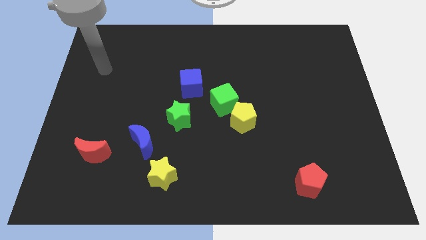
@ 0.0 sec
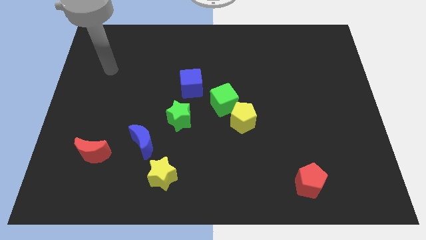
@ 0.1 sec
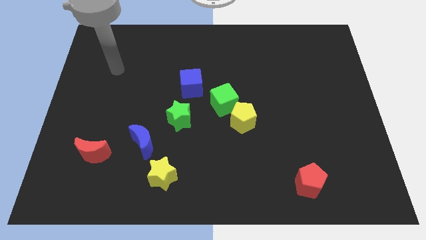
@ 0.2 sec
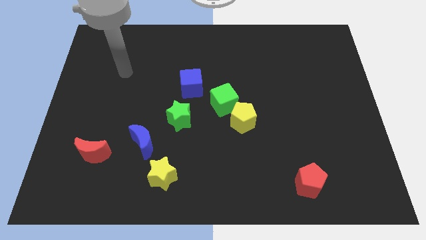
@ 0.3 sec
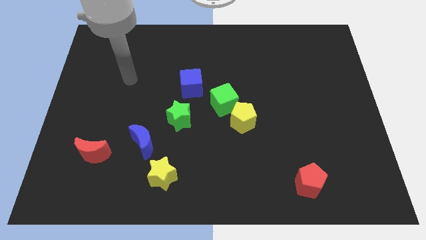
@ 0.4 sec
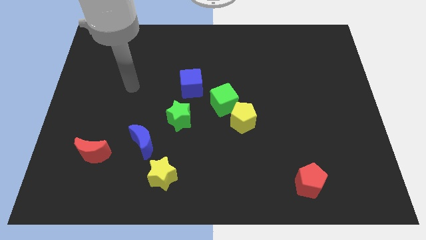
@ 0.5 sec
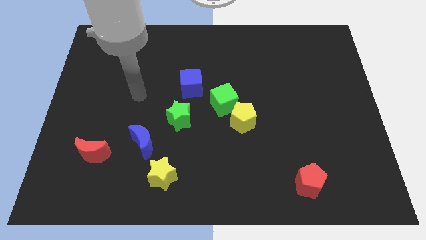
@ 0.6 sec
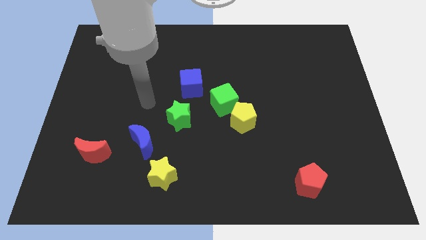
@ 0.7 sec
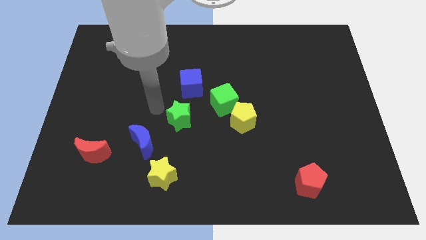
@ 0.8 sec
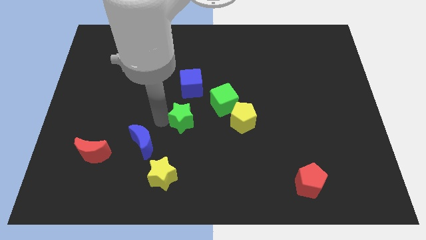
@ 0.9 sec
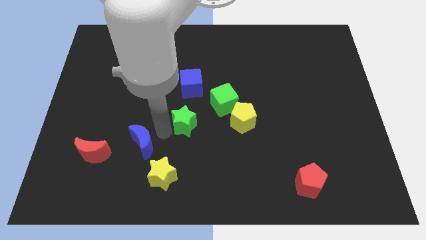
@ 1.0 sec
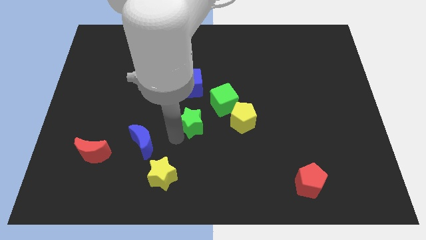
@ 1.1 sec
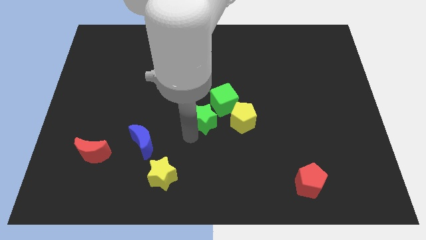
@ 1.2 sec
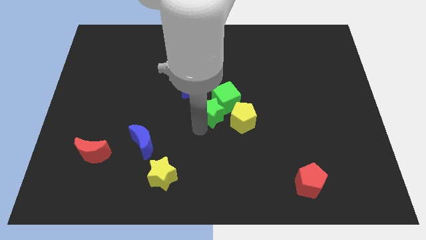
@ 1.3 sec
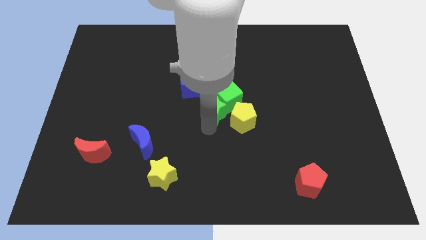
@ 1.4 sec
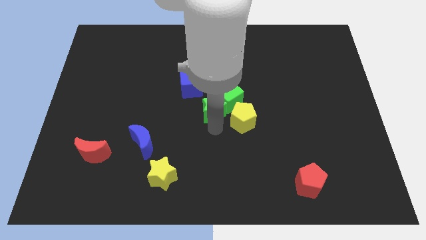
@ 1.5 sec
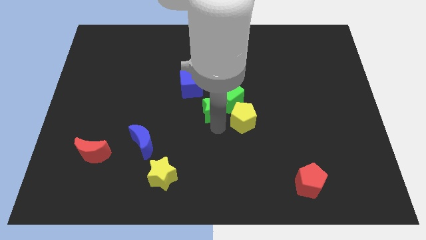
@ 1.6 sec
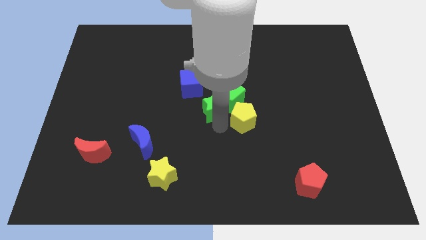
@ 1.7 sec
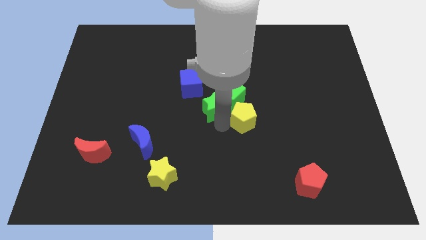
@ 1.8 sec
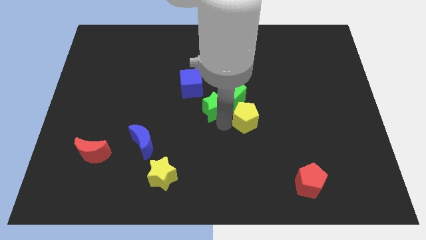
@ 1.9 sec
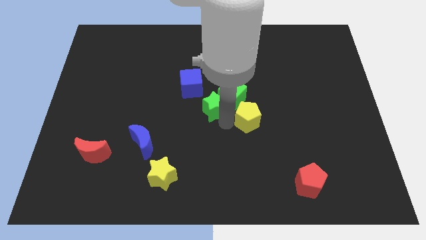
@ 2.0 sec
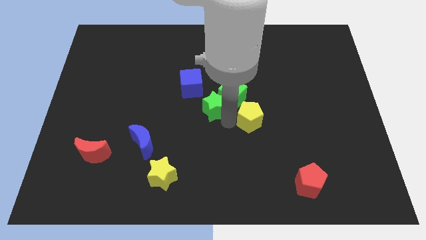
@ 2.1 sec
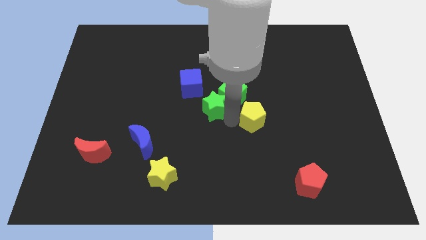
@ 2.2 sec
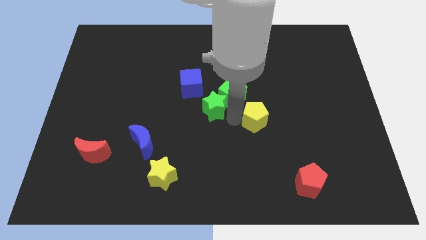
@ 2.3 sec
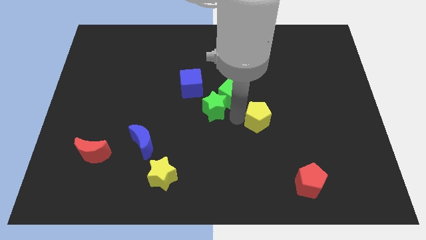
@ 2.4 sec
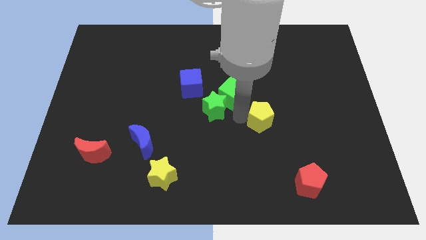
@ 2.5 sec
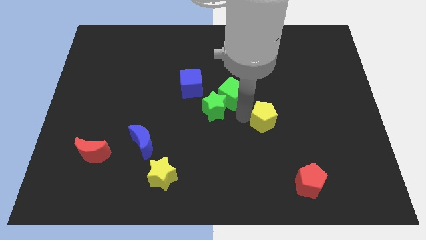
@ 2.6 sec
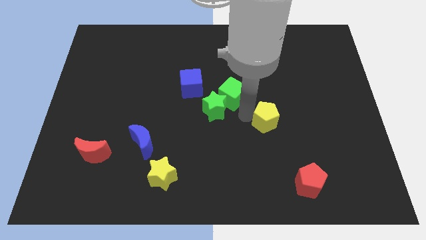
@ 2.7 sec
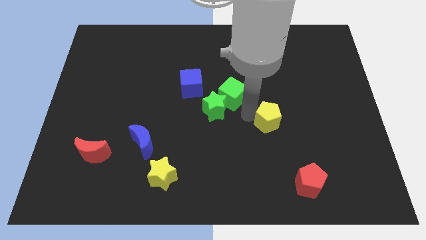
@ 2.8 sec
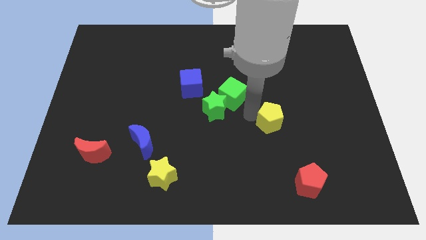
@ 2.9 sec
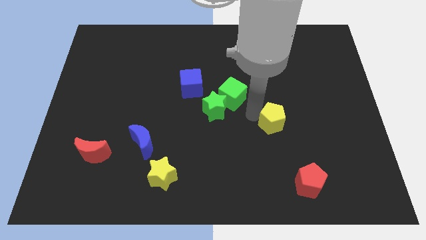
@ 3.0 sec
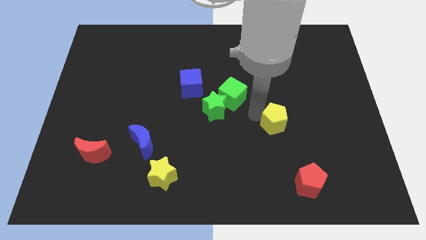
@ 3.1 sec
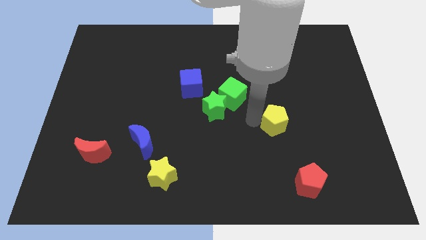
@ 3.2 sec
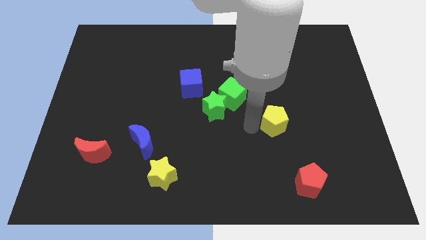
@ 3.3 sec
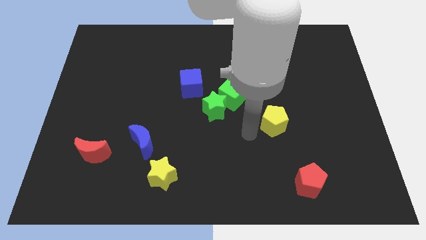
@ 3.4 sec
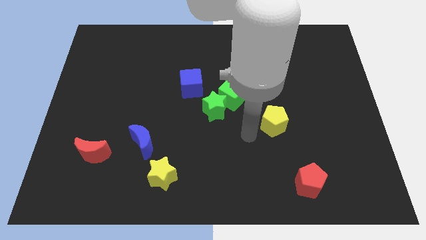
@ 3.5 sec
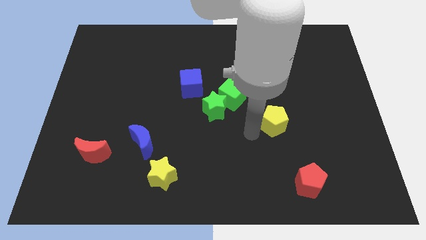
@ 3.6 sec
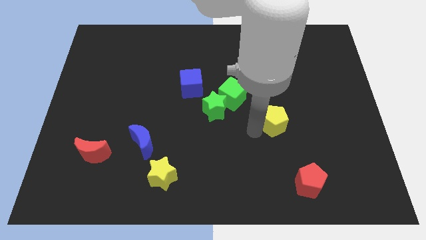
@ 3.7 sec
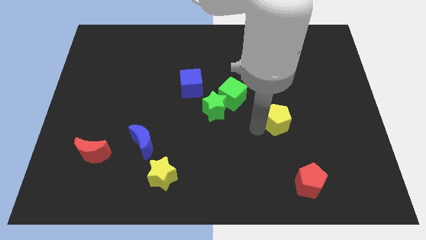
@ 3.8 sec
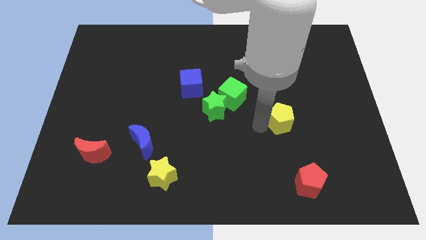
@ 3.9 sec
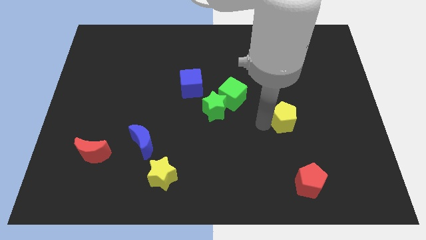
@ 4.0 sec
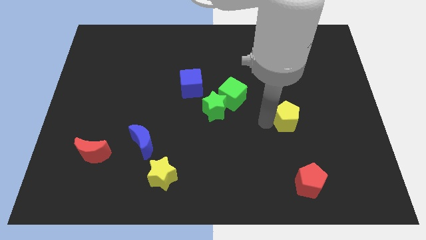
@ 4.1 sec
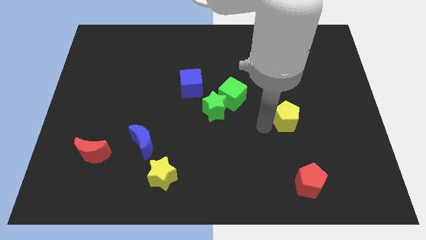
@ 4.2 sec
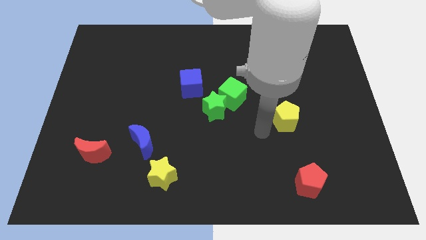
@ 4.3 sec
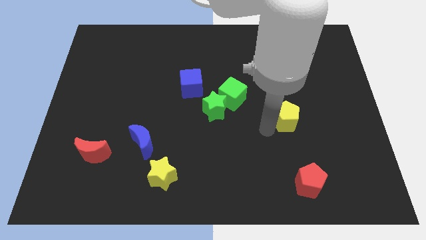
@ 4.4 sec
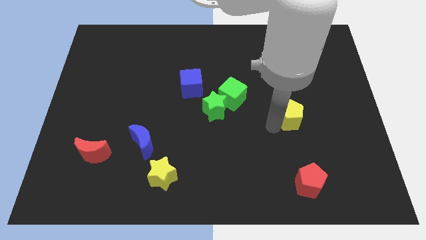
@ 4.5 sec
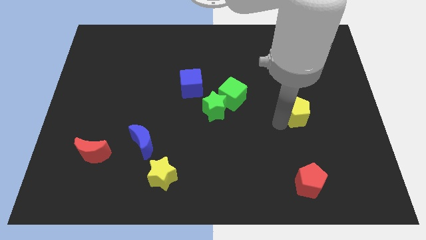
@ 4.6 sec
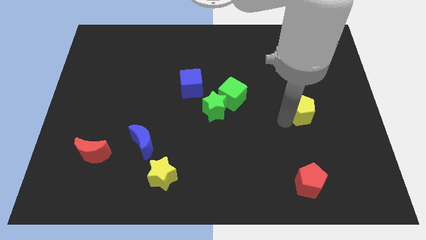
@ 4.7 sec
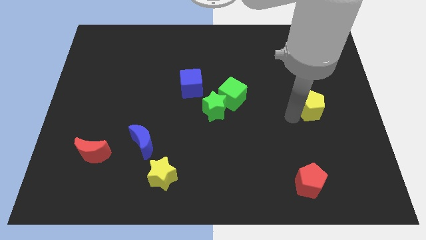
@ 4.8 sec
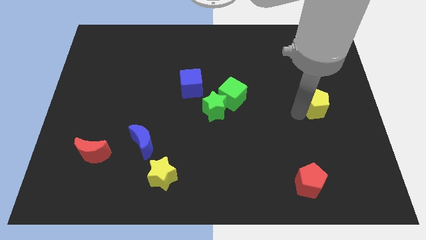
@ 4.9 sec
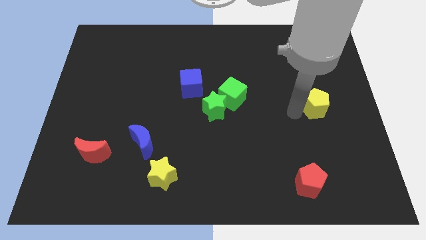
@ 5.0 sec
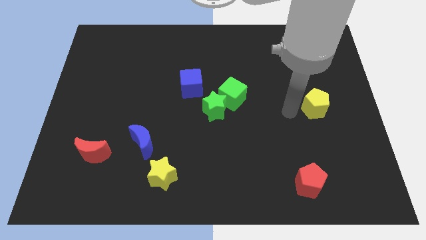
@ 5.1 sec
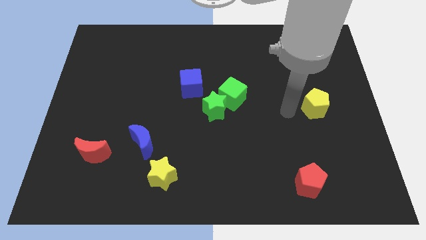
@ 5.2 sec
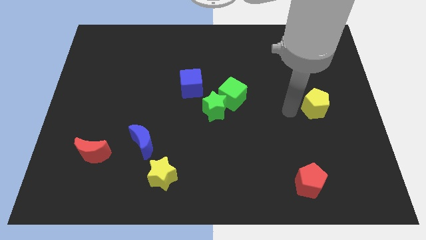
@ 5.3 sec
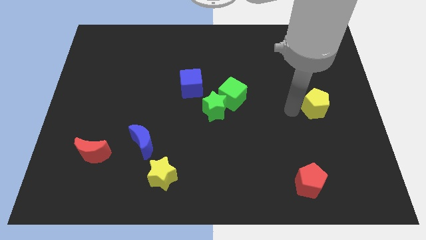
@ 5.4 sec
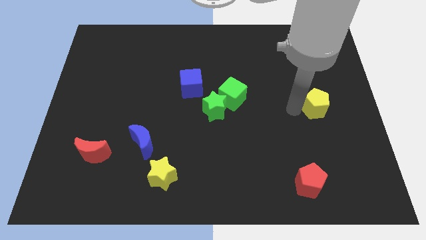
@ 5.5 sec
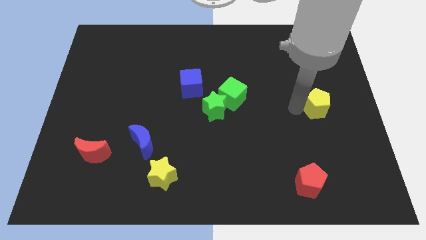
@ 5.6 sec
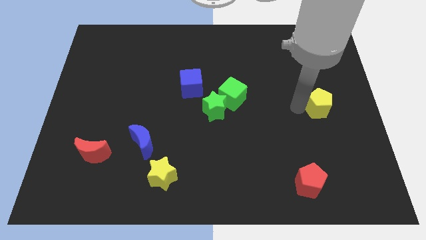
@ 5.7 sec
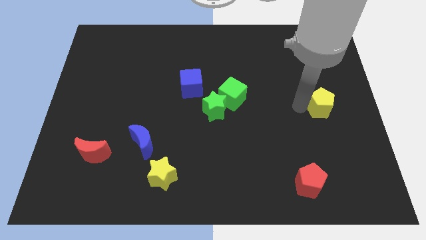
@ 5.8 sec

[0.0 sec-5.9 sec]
move the yellow pentagon to the right side of the board
